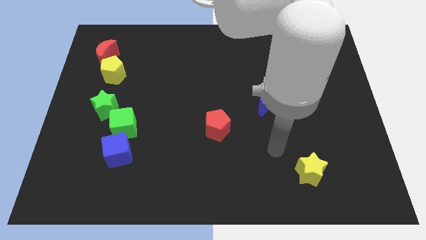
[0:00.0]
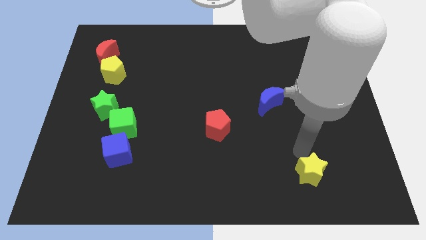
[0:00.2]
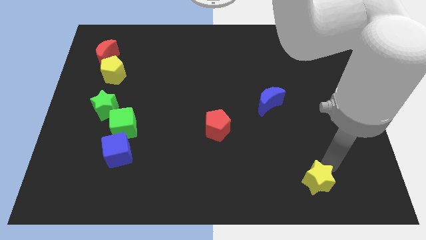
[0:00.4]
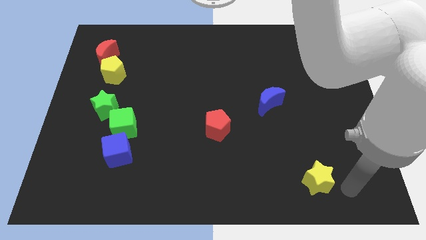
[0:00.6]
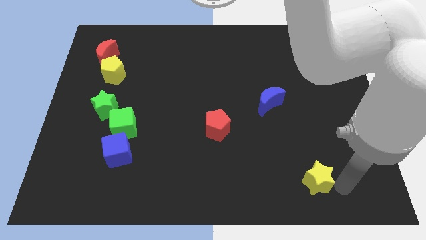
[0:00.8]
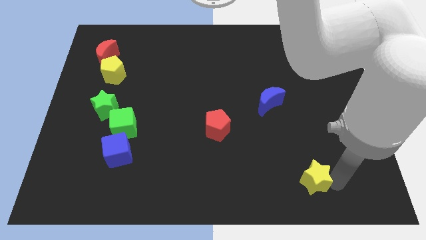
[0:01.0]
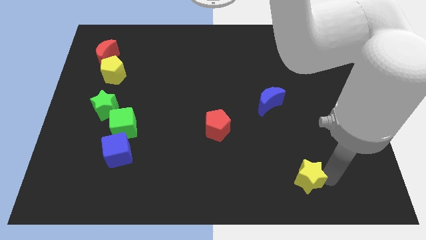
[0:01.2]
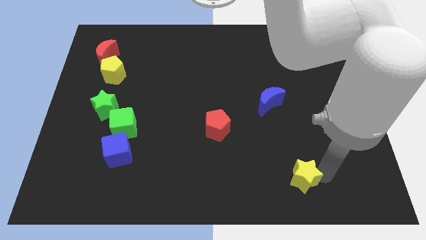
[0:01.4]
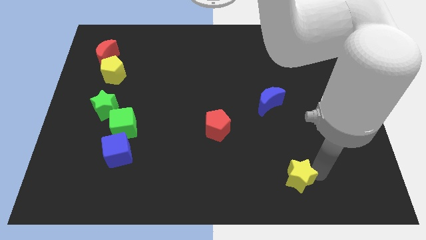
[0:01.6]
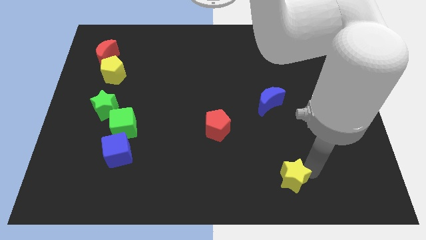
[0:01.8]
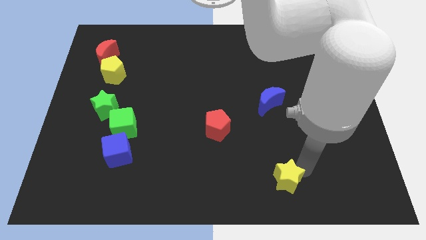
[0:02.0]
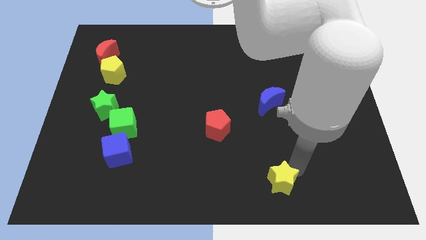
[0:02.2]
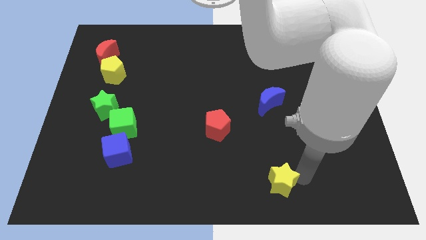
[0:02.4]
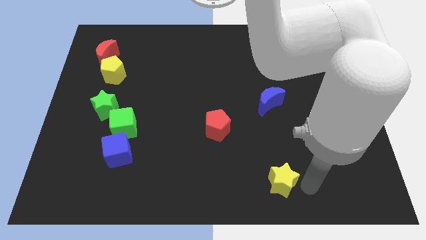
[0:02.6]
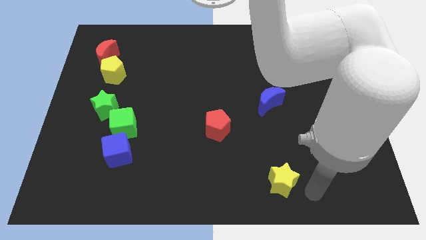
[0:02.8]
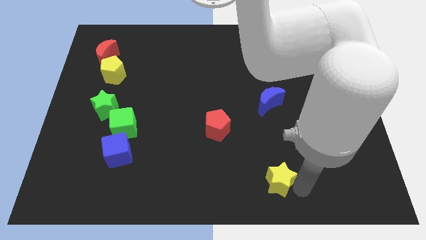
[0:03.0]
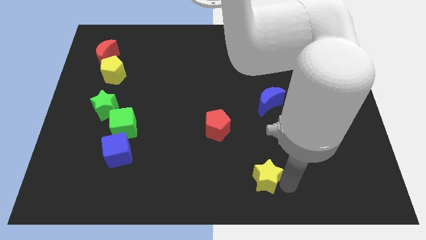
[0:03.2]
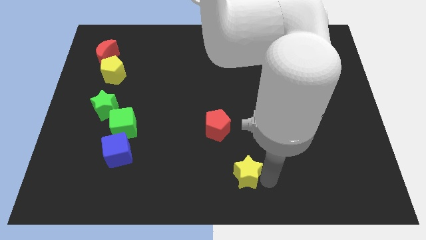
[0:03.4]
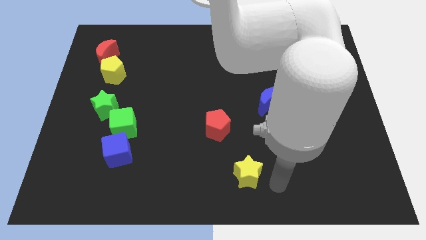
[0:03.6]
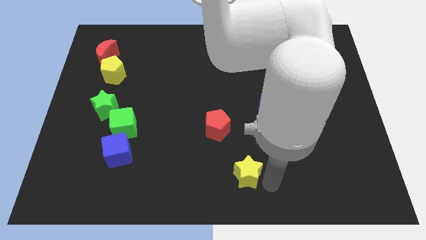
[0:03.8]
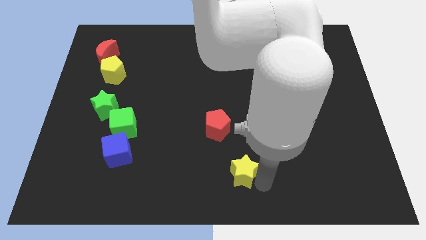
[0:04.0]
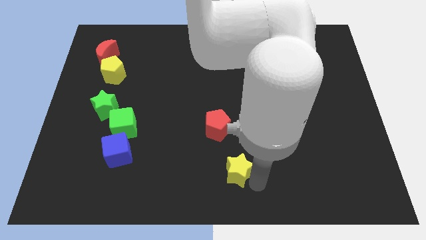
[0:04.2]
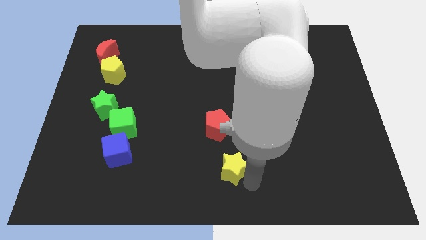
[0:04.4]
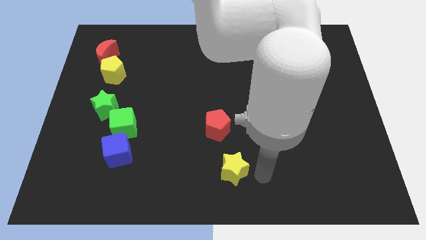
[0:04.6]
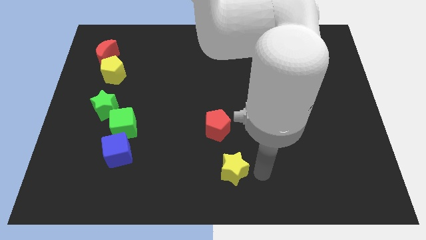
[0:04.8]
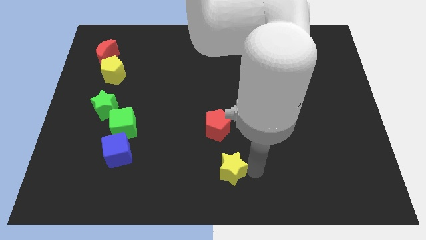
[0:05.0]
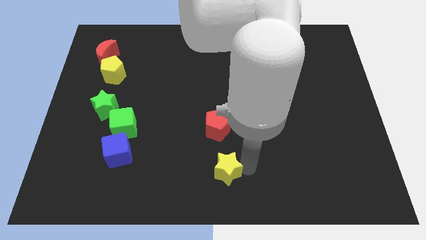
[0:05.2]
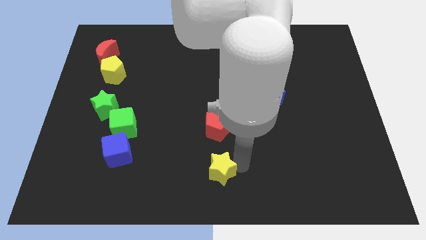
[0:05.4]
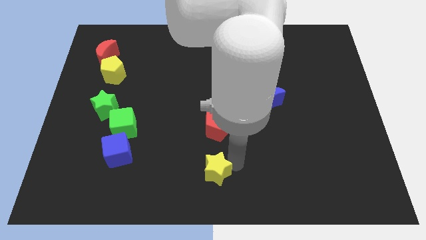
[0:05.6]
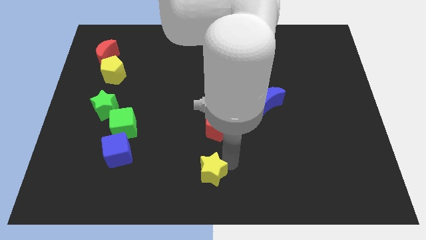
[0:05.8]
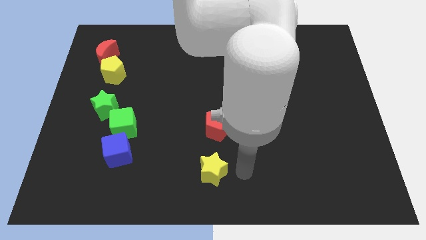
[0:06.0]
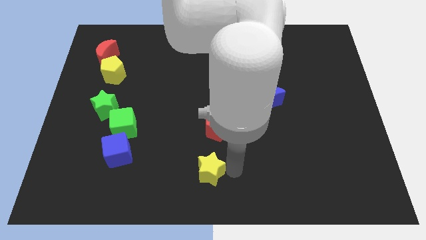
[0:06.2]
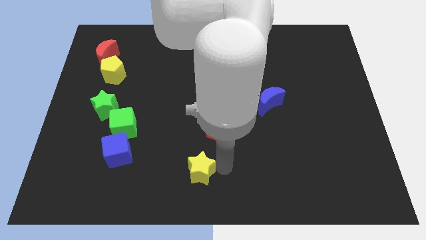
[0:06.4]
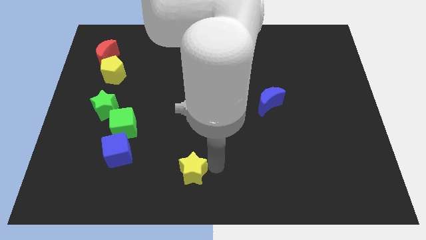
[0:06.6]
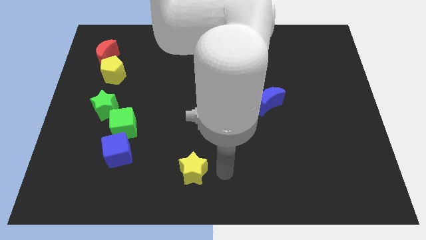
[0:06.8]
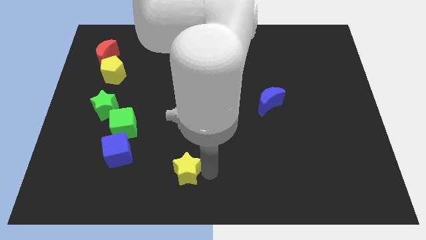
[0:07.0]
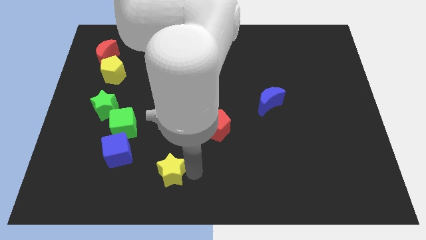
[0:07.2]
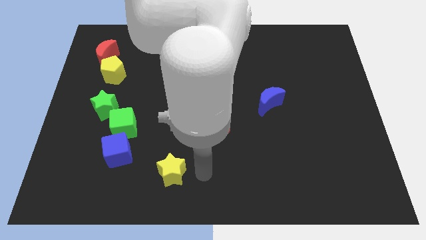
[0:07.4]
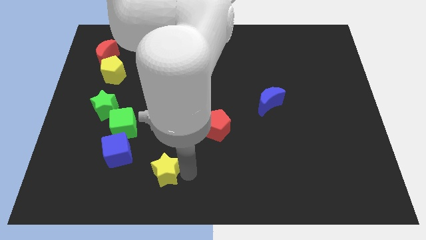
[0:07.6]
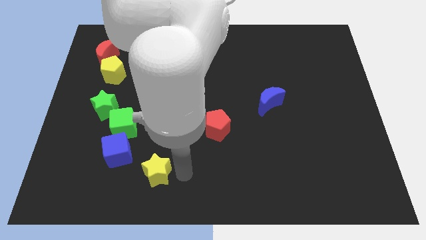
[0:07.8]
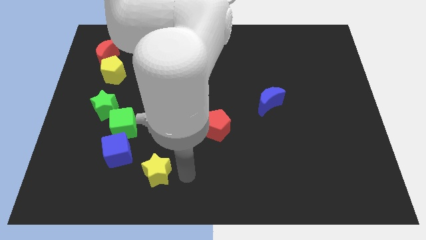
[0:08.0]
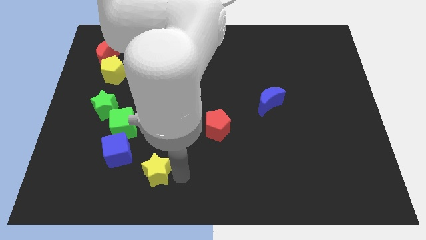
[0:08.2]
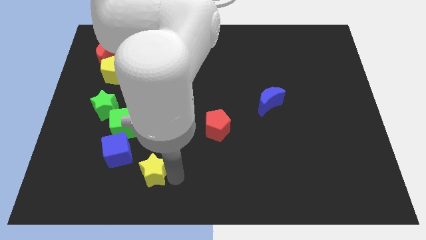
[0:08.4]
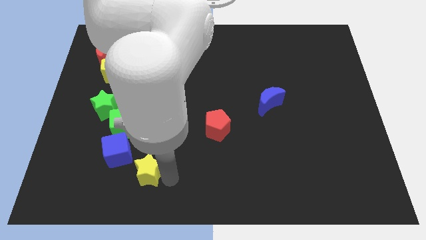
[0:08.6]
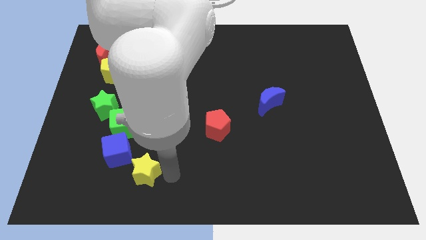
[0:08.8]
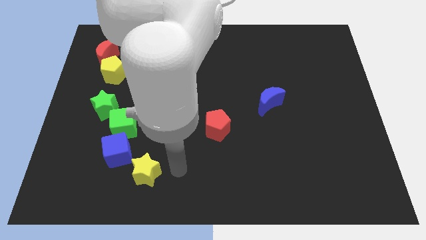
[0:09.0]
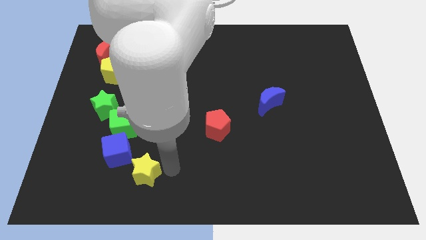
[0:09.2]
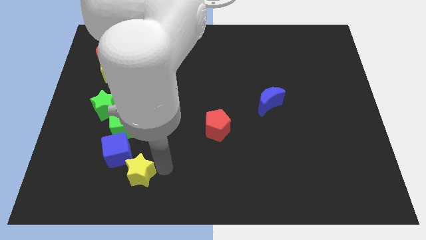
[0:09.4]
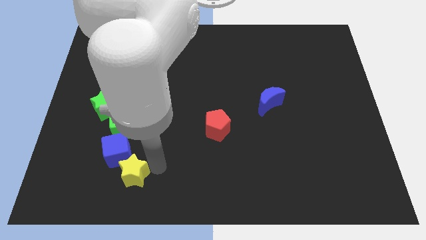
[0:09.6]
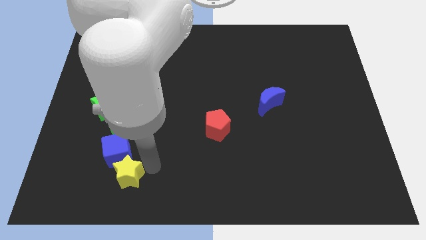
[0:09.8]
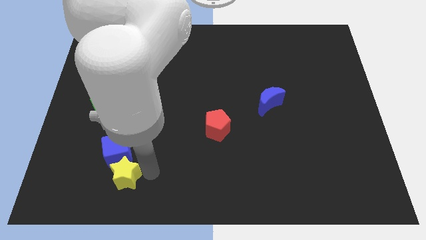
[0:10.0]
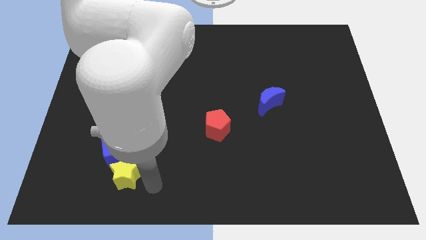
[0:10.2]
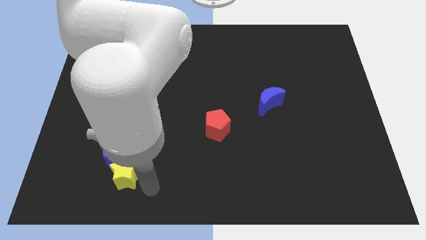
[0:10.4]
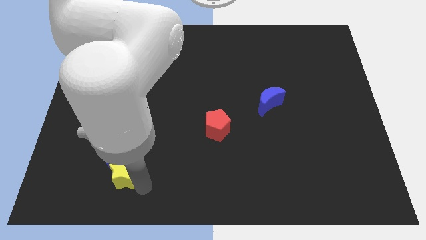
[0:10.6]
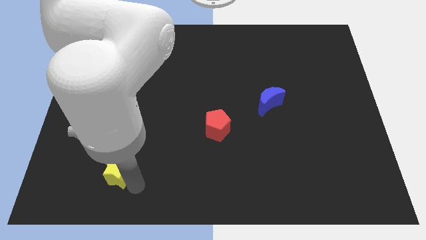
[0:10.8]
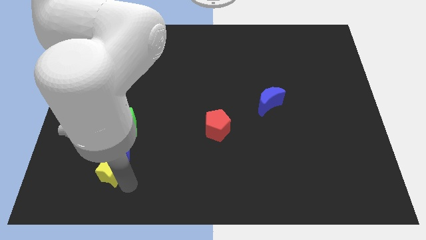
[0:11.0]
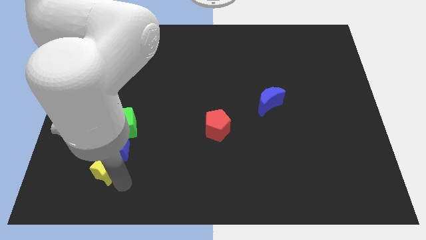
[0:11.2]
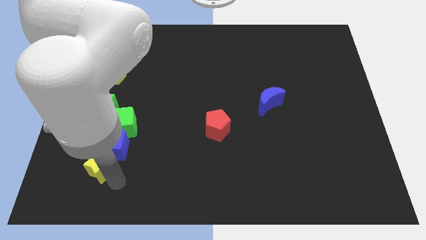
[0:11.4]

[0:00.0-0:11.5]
move the yellow star to the bottom of the green star

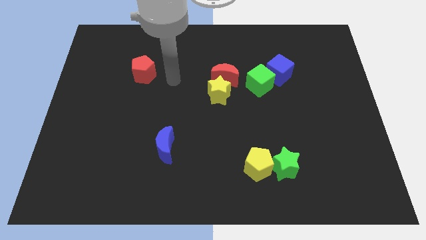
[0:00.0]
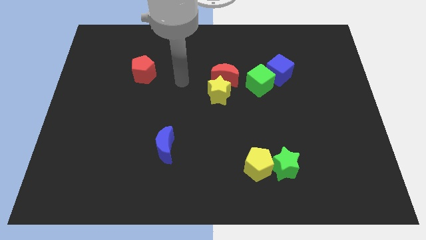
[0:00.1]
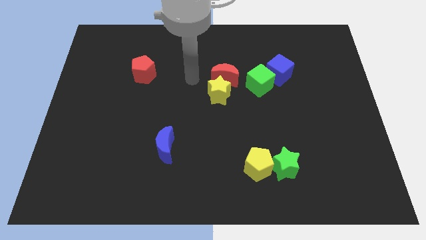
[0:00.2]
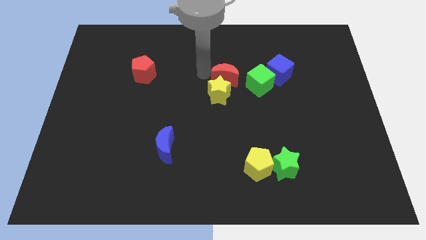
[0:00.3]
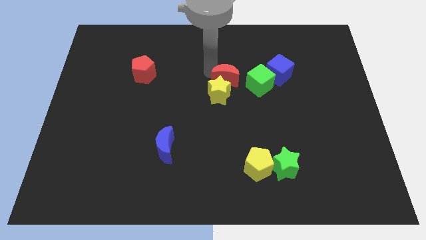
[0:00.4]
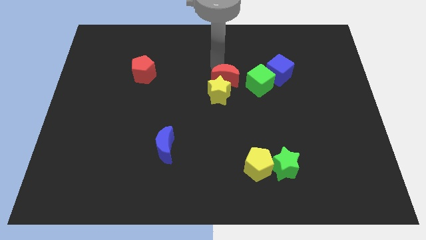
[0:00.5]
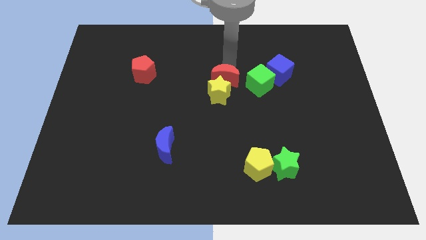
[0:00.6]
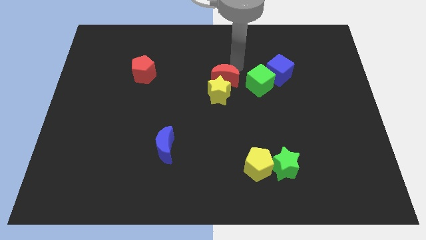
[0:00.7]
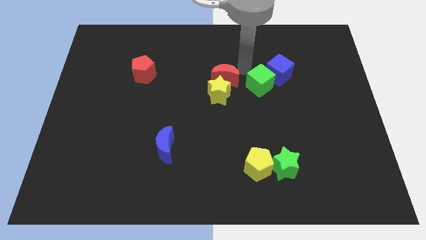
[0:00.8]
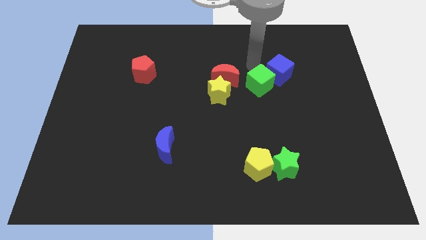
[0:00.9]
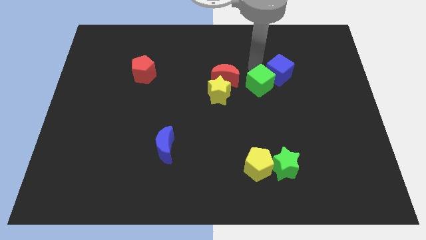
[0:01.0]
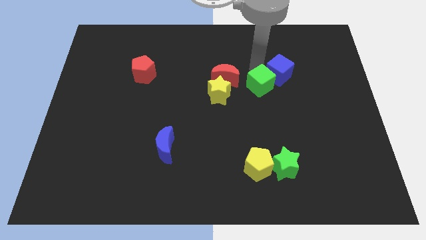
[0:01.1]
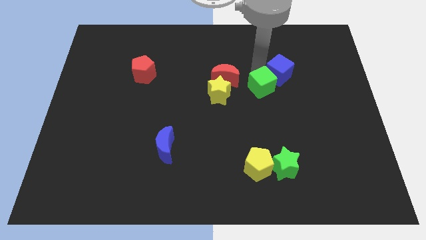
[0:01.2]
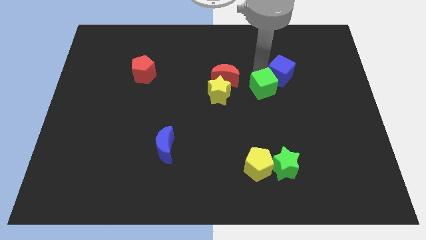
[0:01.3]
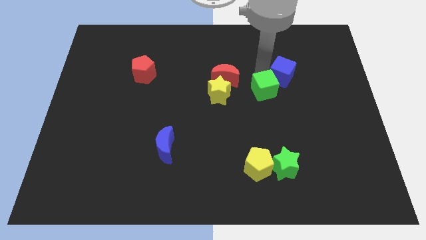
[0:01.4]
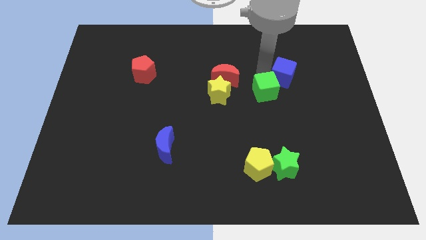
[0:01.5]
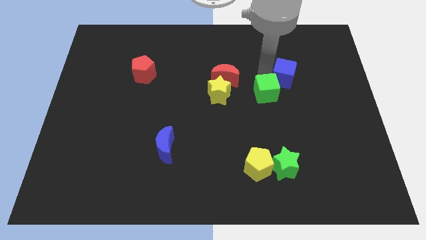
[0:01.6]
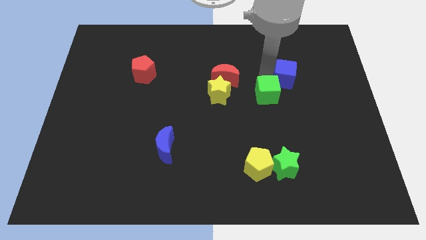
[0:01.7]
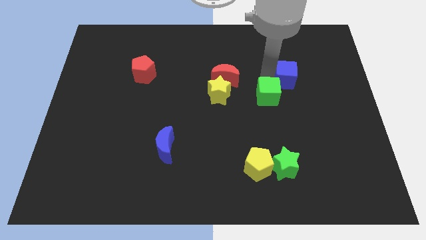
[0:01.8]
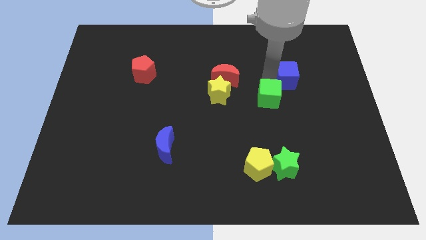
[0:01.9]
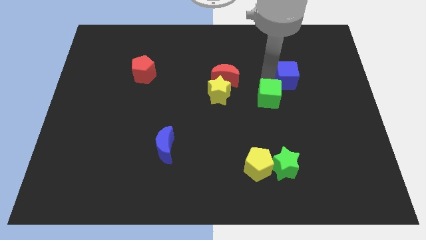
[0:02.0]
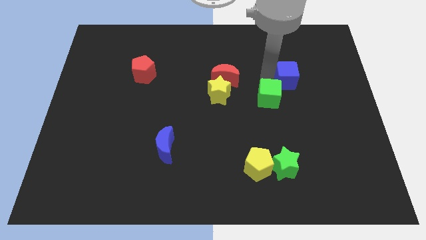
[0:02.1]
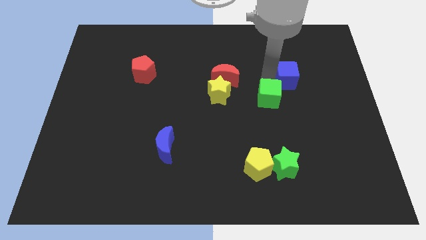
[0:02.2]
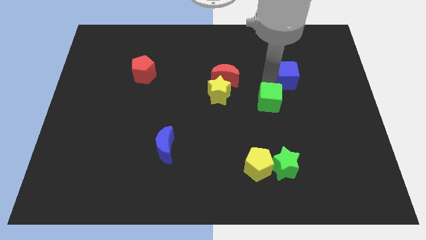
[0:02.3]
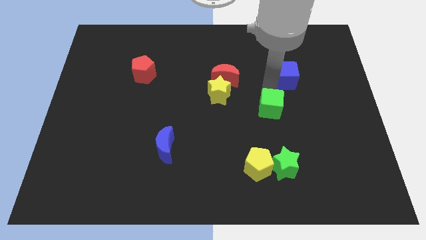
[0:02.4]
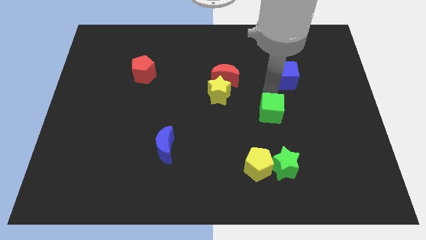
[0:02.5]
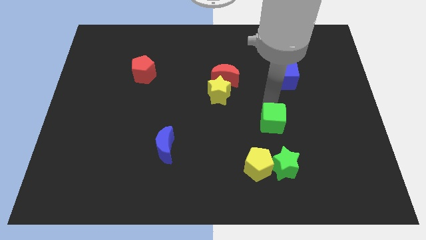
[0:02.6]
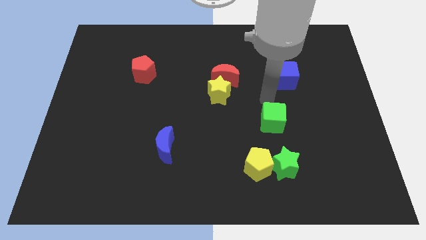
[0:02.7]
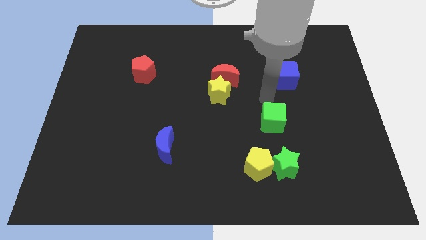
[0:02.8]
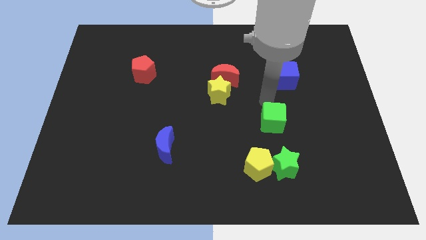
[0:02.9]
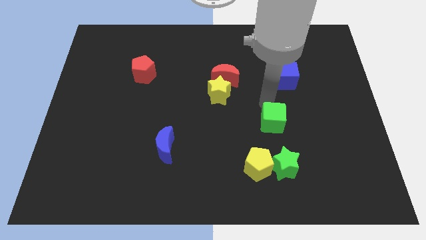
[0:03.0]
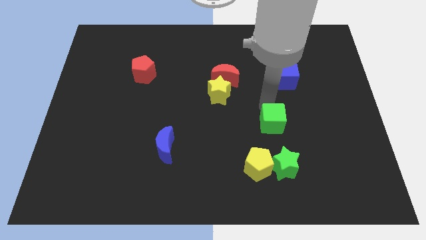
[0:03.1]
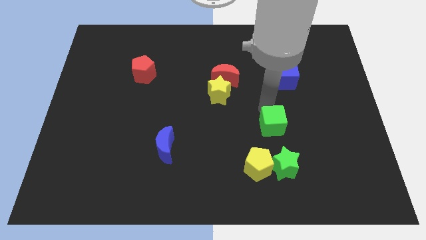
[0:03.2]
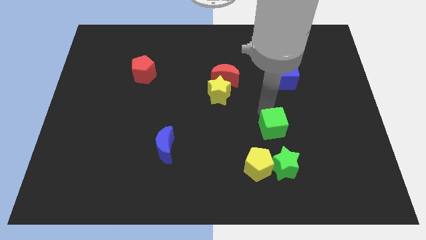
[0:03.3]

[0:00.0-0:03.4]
push the green cube diagonally up and to the right of the yellow pentagon
